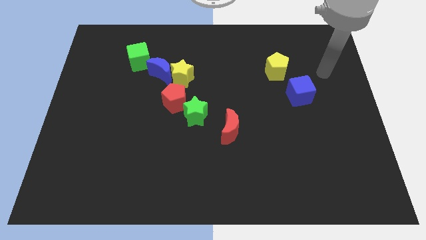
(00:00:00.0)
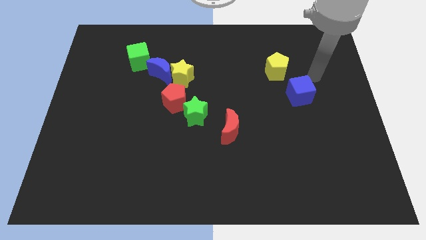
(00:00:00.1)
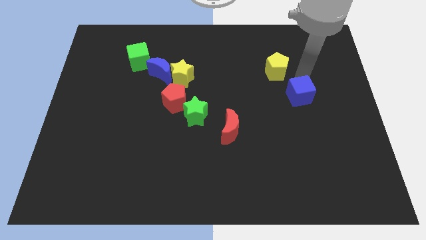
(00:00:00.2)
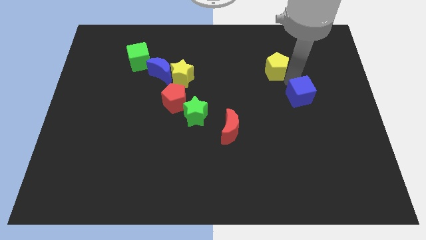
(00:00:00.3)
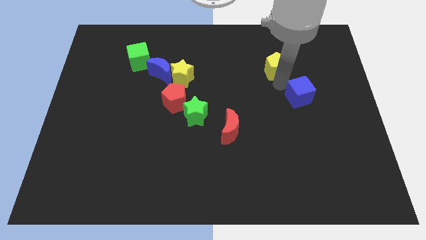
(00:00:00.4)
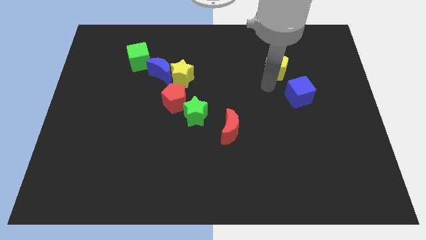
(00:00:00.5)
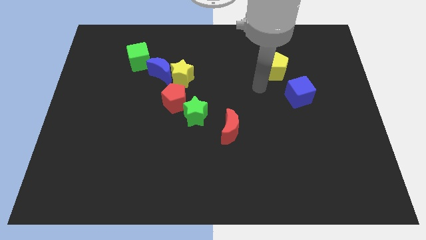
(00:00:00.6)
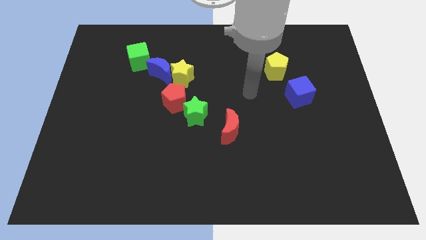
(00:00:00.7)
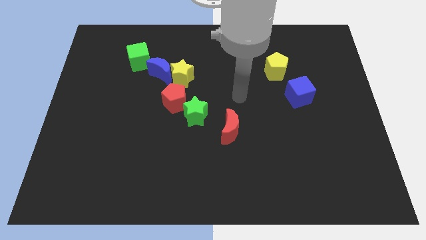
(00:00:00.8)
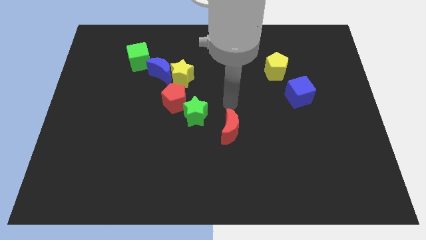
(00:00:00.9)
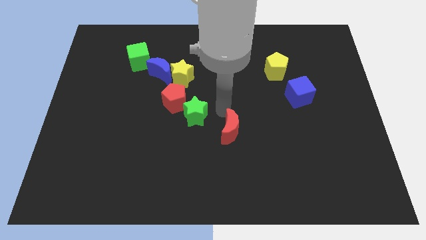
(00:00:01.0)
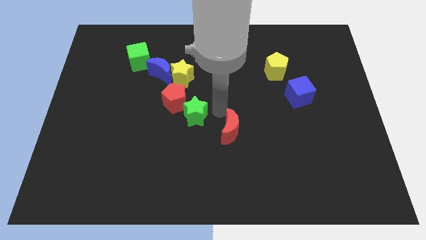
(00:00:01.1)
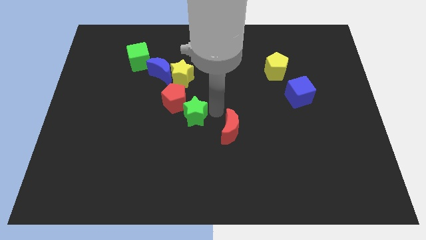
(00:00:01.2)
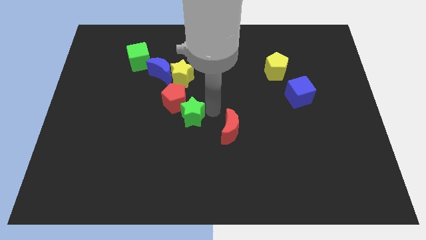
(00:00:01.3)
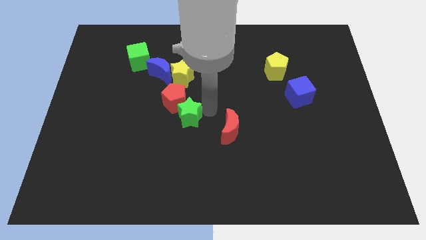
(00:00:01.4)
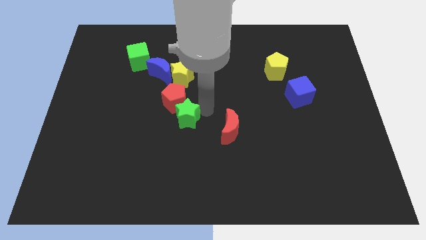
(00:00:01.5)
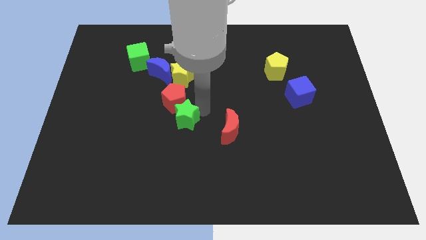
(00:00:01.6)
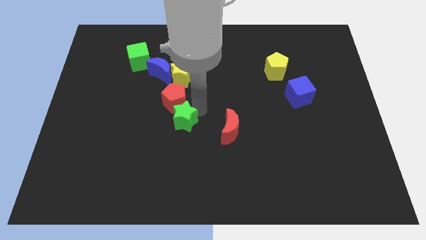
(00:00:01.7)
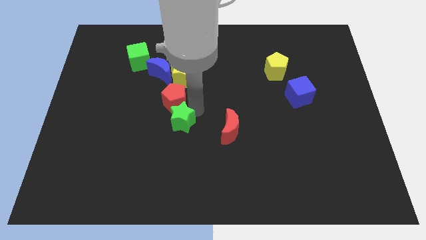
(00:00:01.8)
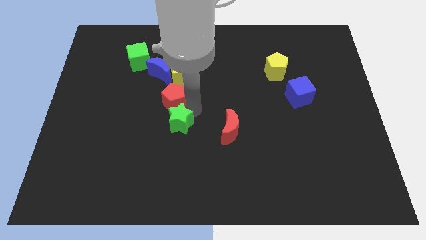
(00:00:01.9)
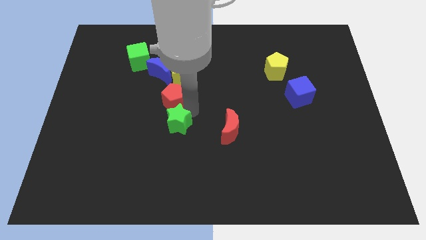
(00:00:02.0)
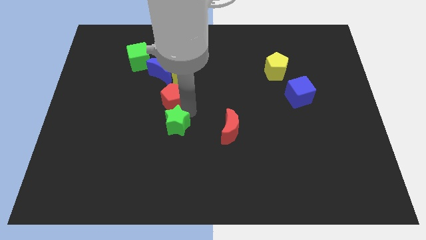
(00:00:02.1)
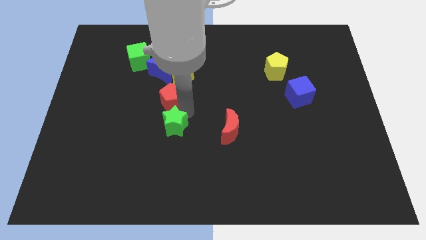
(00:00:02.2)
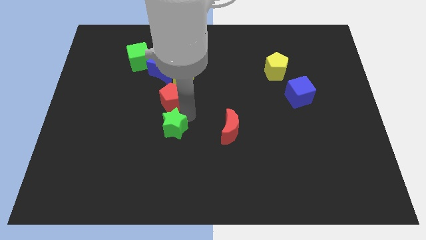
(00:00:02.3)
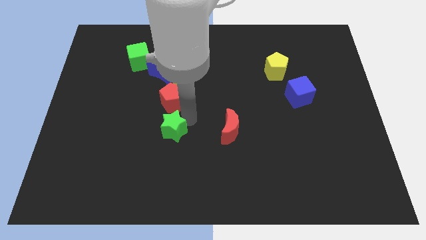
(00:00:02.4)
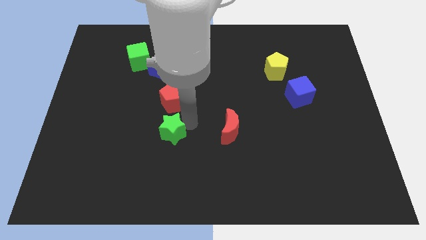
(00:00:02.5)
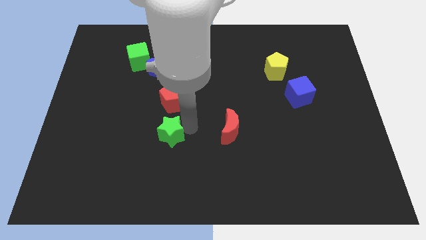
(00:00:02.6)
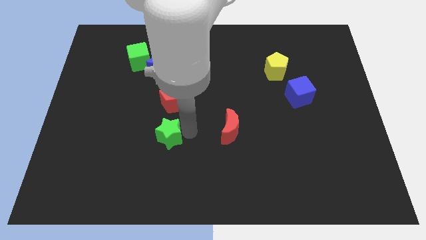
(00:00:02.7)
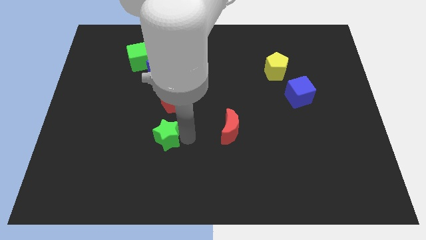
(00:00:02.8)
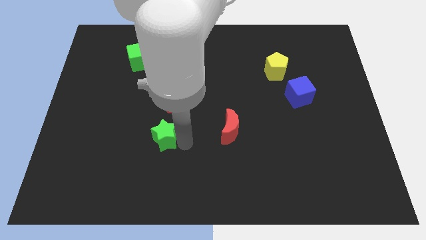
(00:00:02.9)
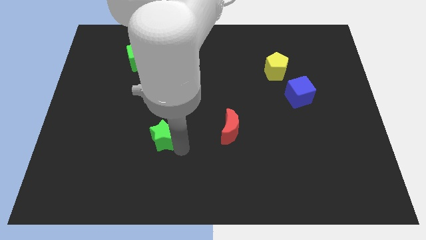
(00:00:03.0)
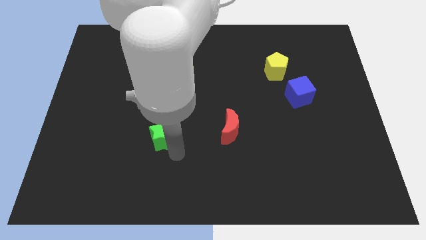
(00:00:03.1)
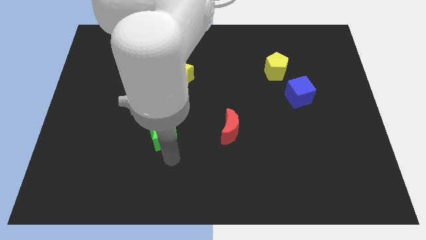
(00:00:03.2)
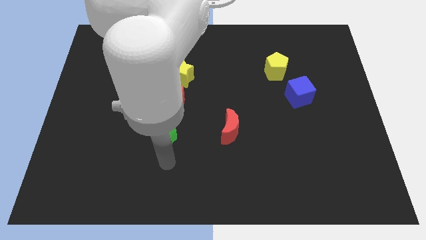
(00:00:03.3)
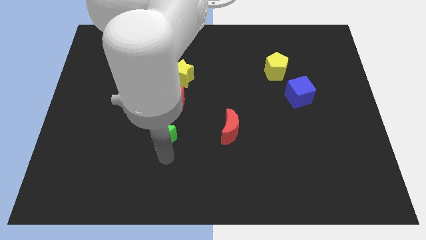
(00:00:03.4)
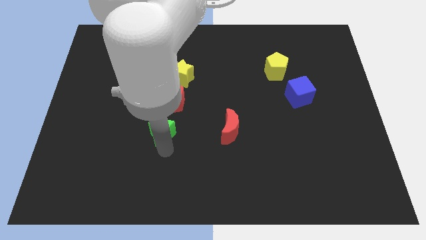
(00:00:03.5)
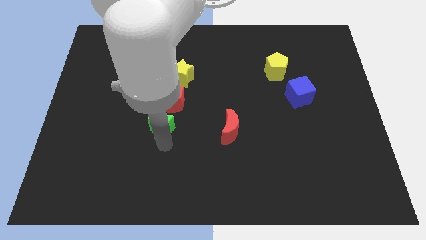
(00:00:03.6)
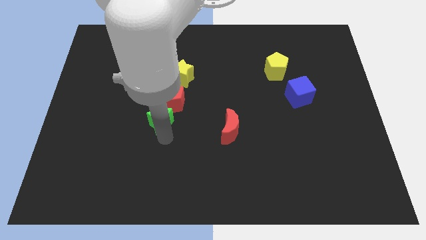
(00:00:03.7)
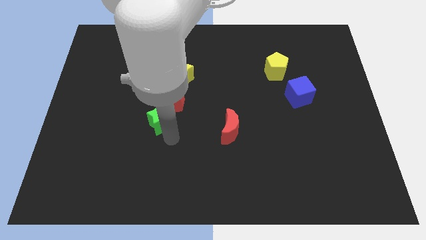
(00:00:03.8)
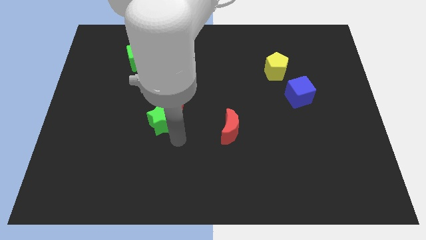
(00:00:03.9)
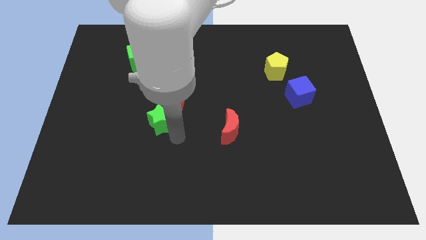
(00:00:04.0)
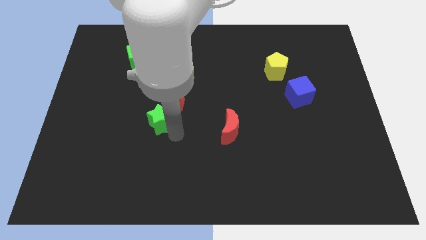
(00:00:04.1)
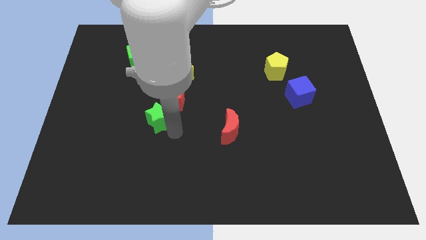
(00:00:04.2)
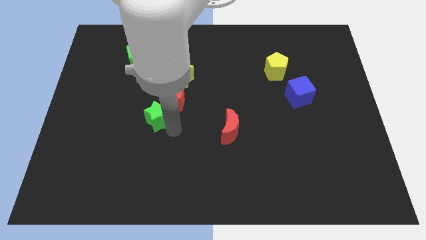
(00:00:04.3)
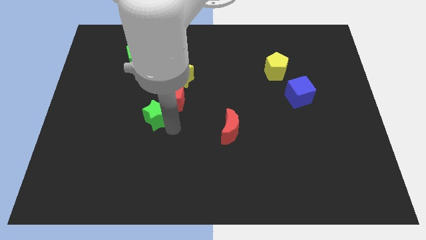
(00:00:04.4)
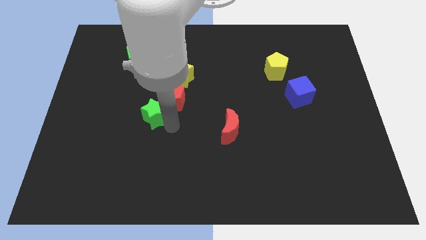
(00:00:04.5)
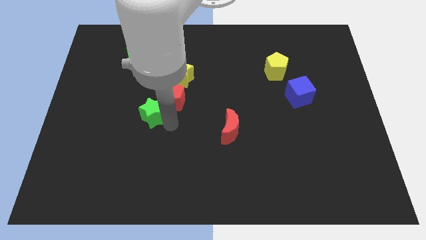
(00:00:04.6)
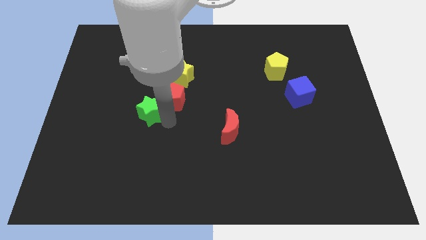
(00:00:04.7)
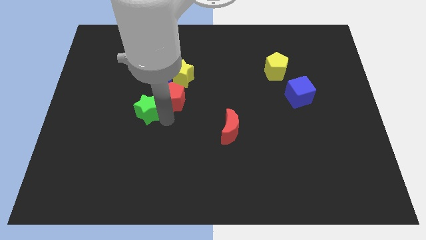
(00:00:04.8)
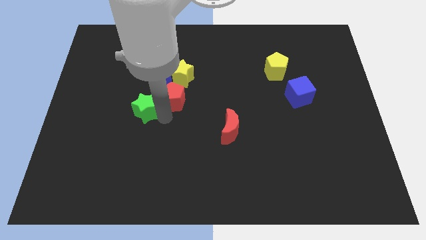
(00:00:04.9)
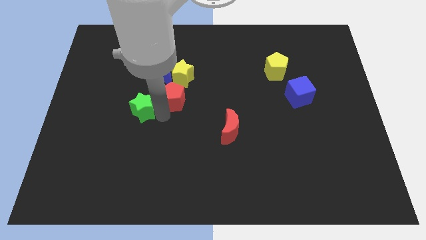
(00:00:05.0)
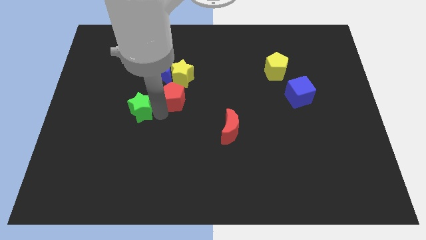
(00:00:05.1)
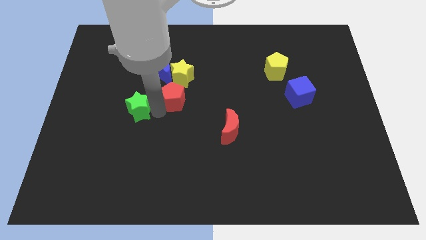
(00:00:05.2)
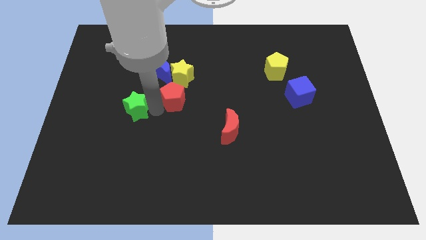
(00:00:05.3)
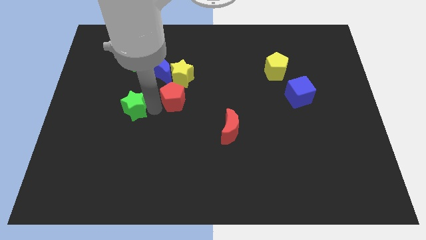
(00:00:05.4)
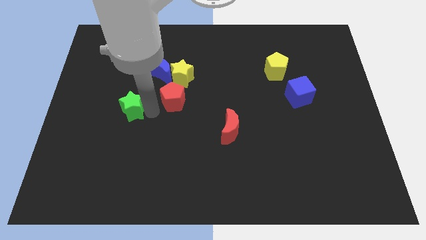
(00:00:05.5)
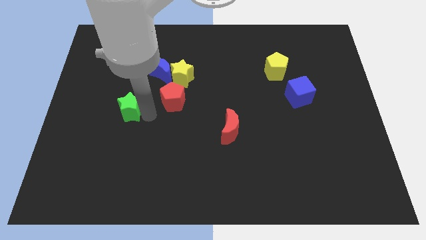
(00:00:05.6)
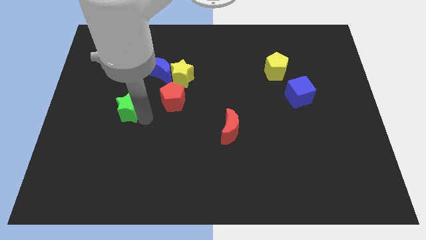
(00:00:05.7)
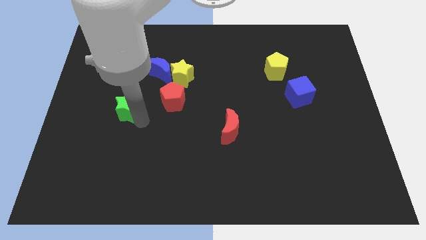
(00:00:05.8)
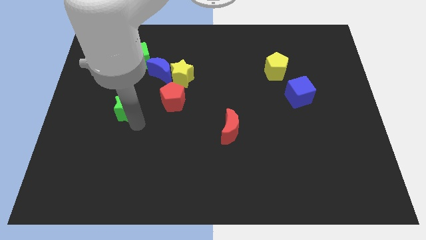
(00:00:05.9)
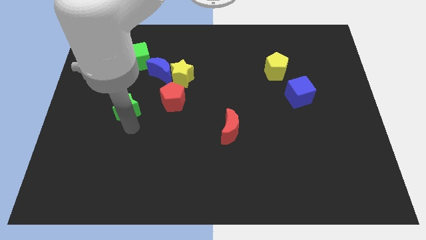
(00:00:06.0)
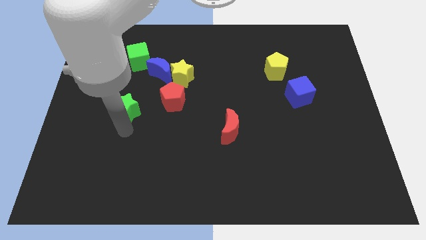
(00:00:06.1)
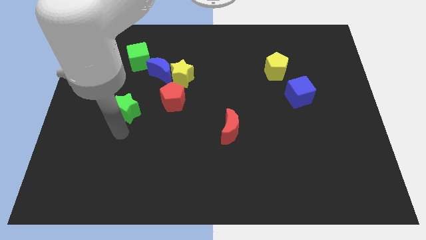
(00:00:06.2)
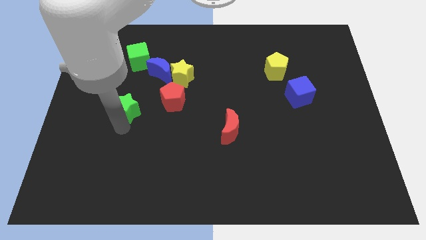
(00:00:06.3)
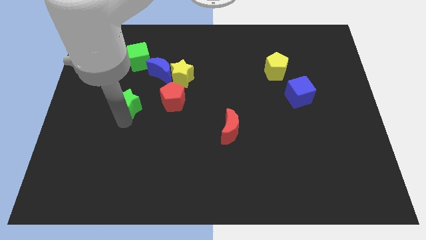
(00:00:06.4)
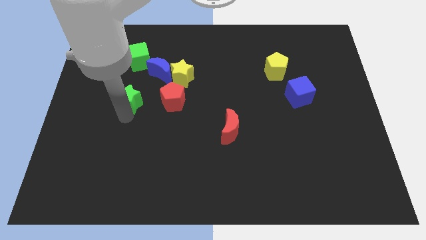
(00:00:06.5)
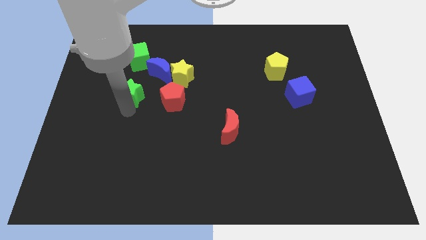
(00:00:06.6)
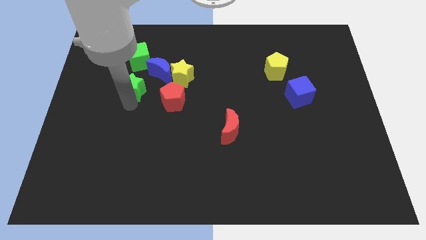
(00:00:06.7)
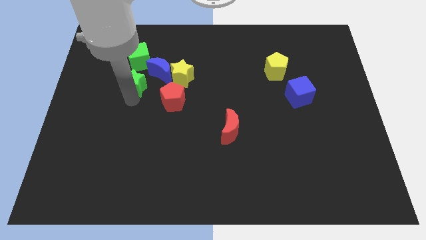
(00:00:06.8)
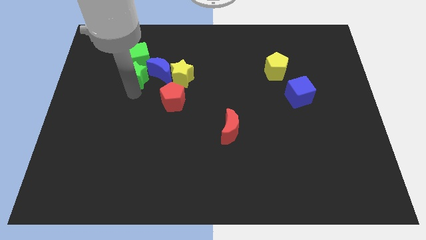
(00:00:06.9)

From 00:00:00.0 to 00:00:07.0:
move the green star towards the green cube

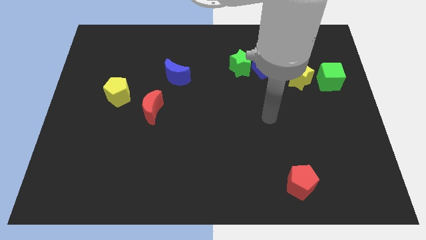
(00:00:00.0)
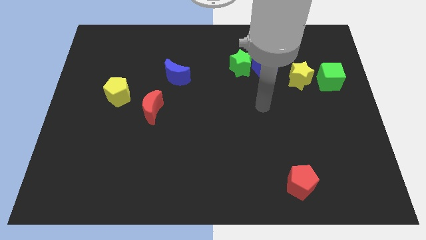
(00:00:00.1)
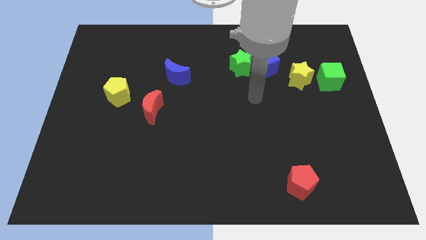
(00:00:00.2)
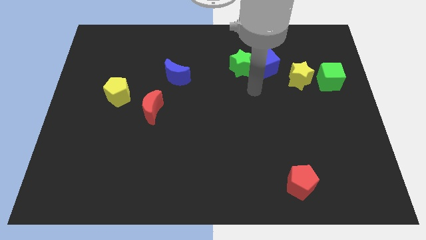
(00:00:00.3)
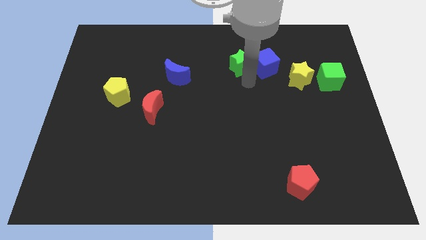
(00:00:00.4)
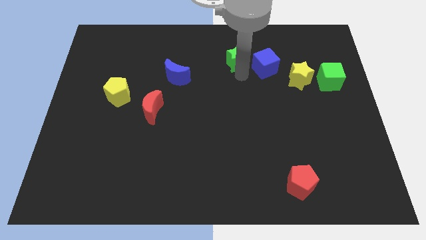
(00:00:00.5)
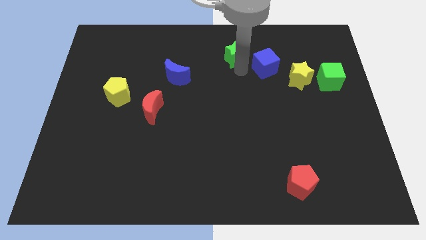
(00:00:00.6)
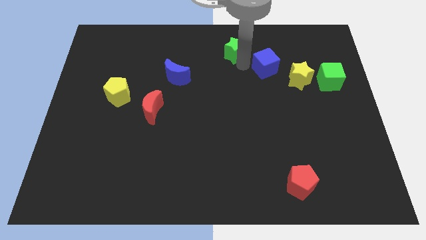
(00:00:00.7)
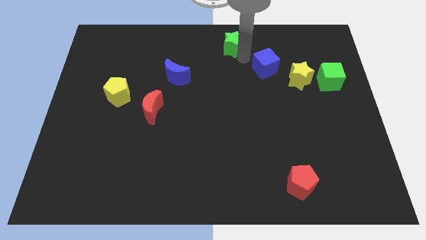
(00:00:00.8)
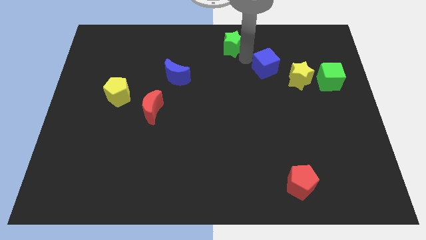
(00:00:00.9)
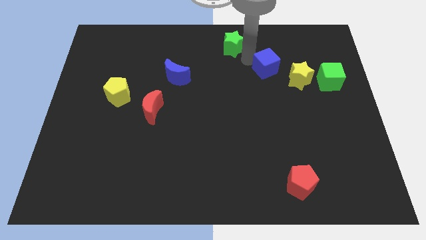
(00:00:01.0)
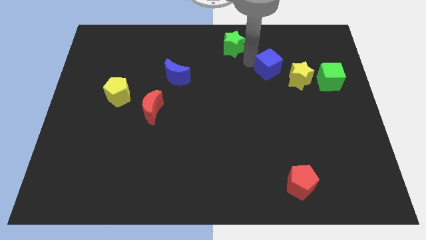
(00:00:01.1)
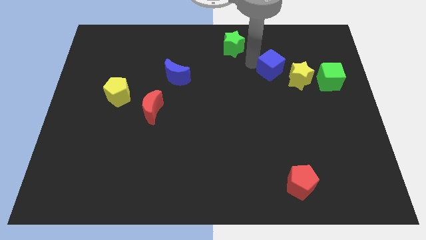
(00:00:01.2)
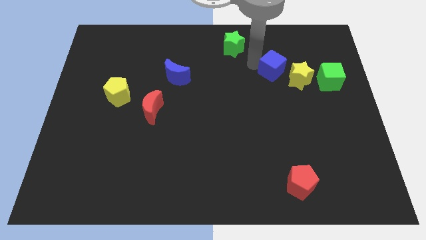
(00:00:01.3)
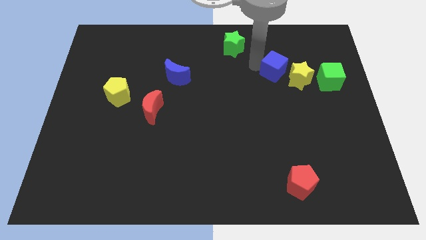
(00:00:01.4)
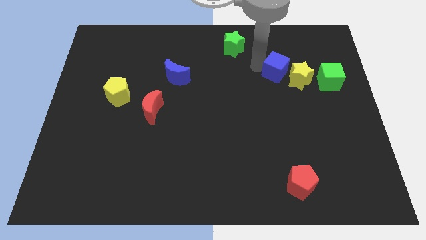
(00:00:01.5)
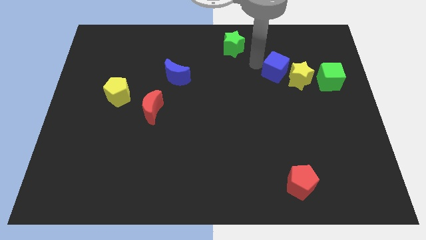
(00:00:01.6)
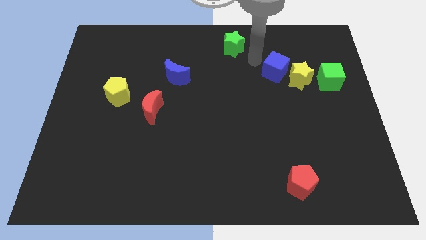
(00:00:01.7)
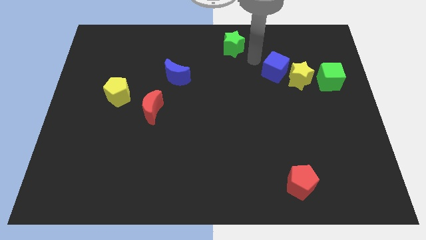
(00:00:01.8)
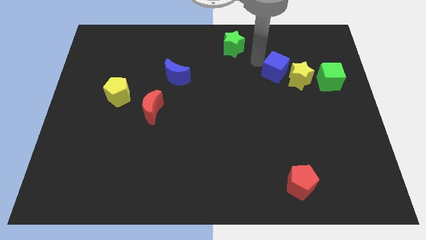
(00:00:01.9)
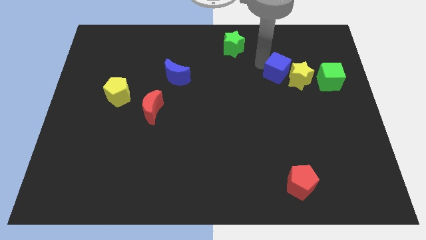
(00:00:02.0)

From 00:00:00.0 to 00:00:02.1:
slide the blue cube next to the yellow star
